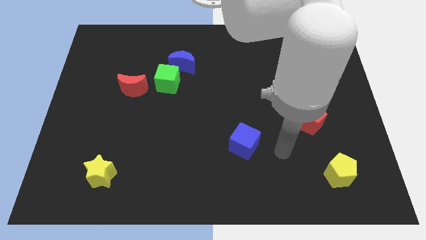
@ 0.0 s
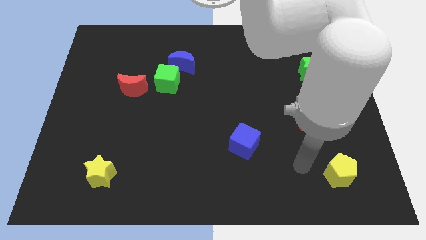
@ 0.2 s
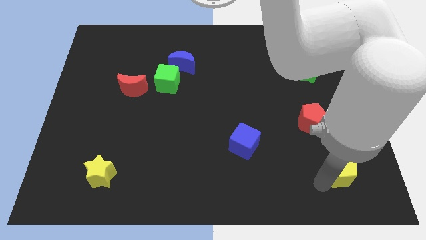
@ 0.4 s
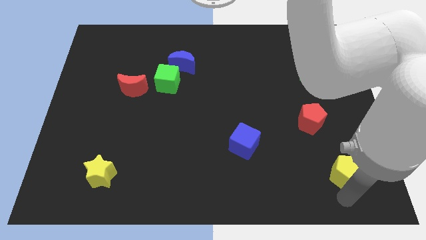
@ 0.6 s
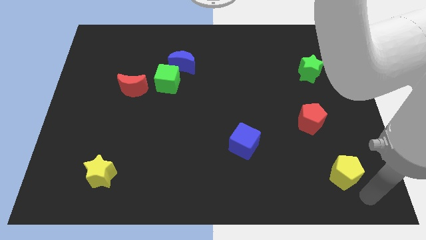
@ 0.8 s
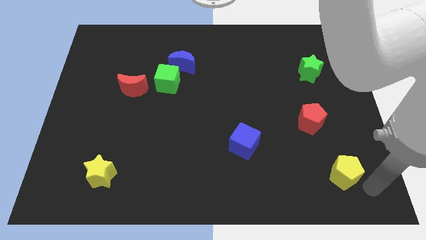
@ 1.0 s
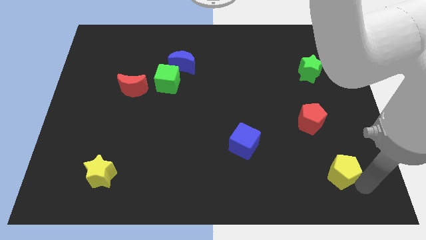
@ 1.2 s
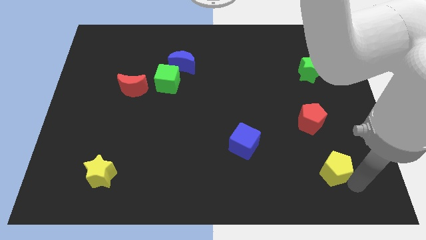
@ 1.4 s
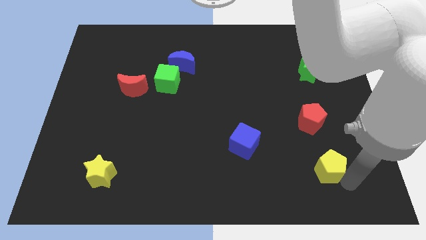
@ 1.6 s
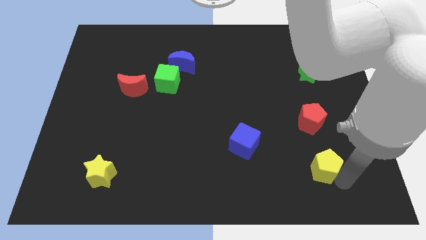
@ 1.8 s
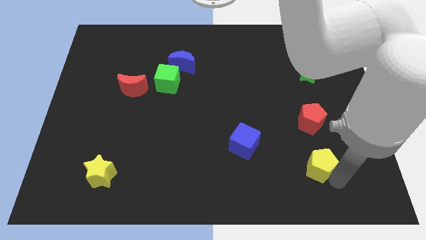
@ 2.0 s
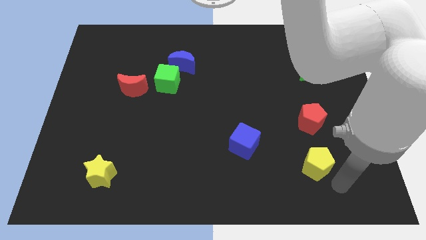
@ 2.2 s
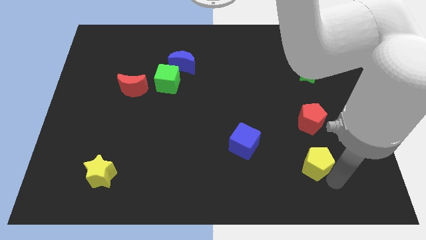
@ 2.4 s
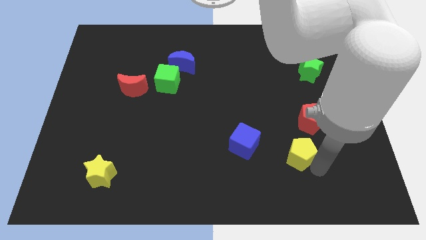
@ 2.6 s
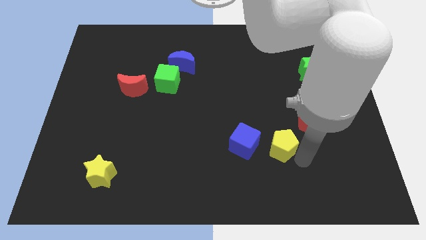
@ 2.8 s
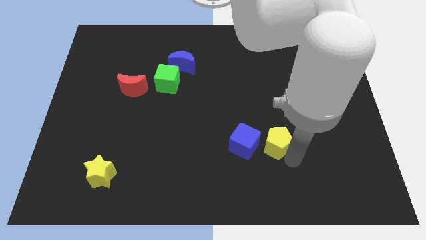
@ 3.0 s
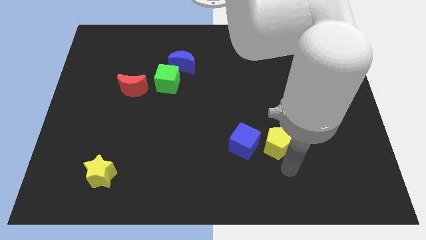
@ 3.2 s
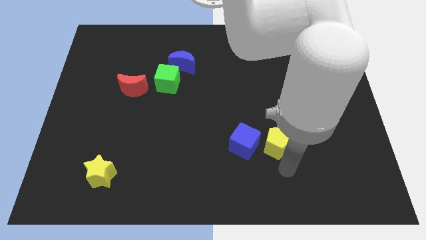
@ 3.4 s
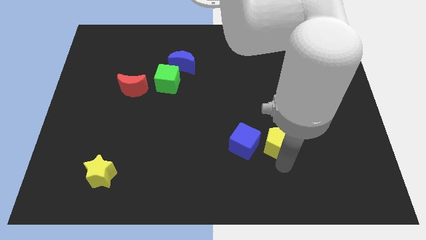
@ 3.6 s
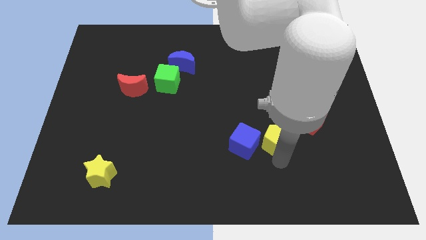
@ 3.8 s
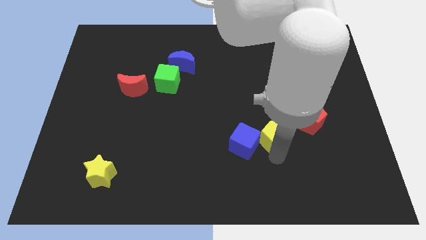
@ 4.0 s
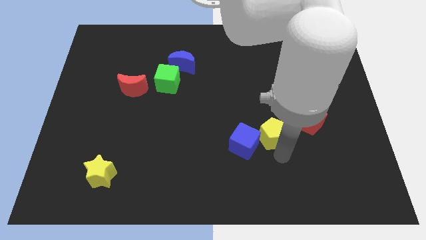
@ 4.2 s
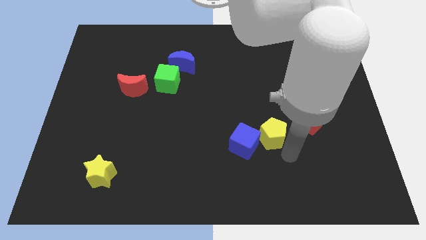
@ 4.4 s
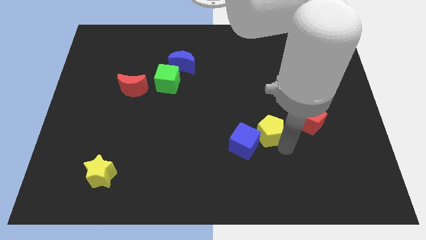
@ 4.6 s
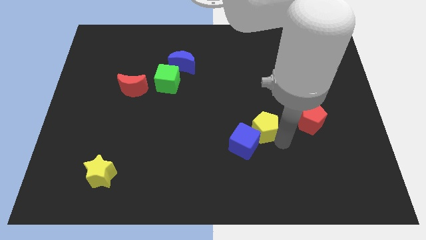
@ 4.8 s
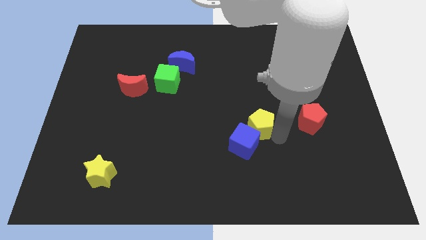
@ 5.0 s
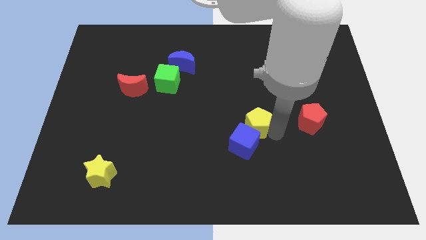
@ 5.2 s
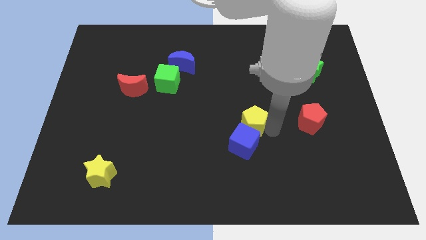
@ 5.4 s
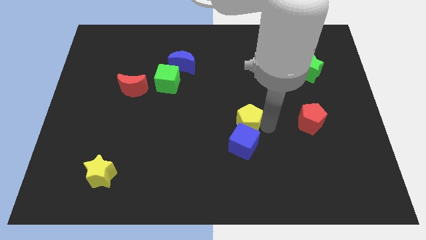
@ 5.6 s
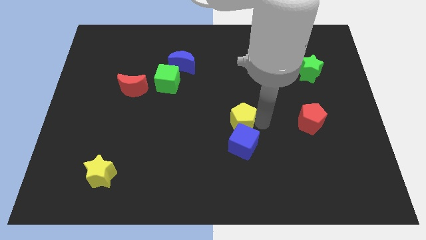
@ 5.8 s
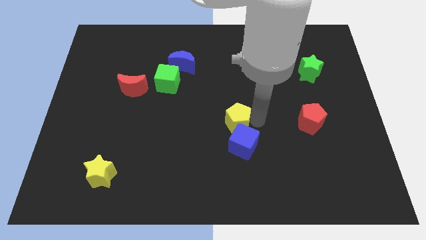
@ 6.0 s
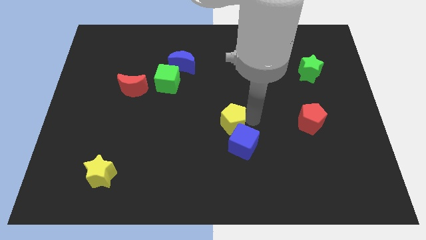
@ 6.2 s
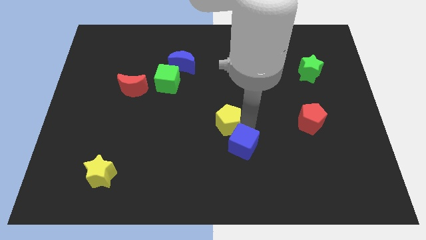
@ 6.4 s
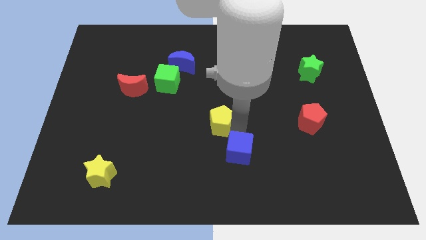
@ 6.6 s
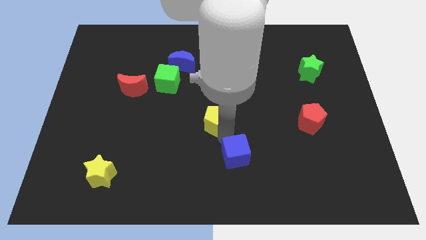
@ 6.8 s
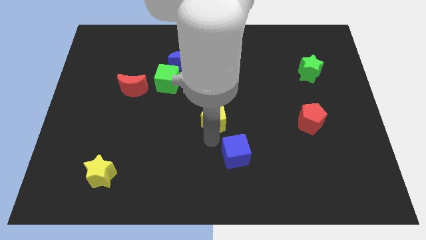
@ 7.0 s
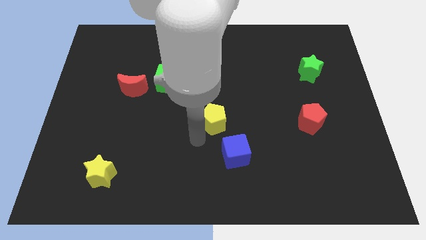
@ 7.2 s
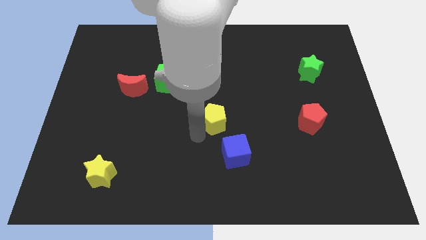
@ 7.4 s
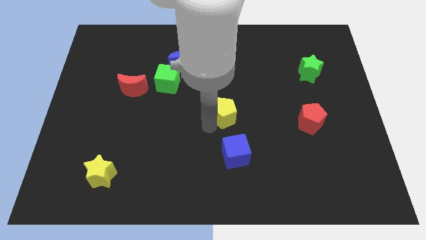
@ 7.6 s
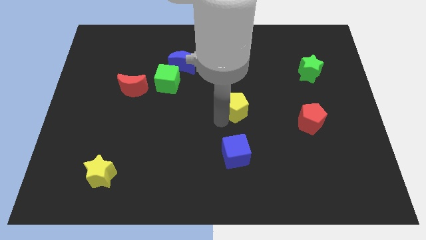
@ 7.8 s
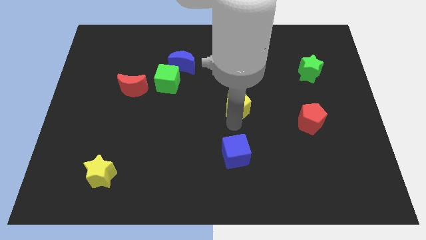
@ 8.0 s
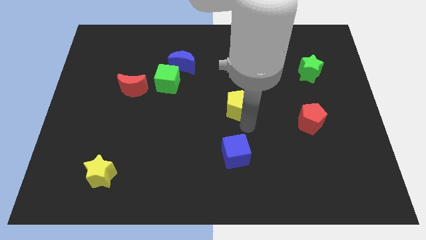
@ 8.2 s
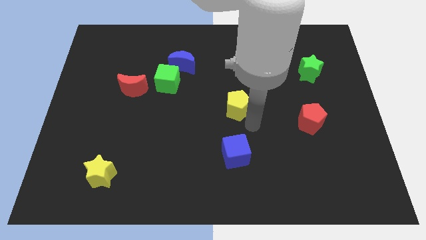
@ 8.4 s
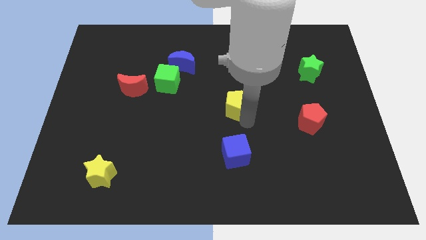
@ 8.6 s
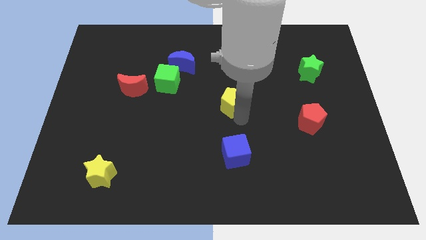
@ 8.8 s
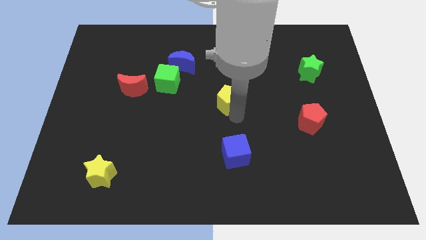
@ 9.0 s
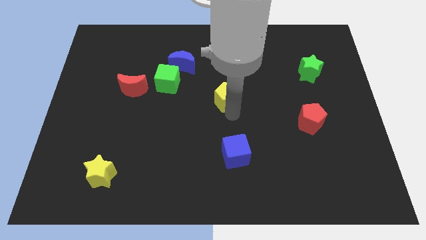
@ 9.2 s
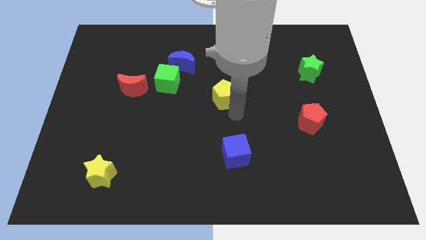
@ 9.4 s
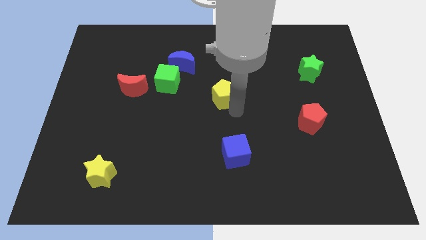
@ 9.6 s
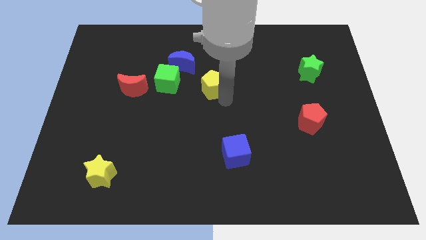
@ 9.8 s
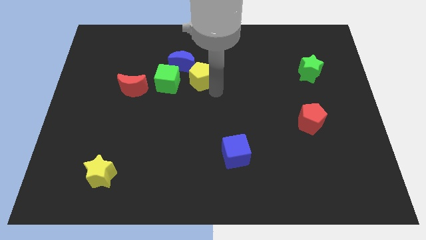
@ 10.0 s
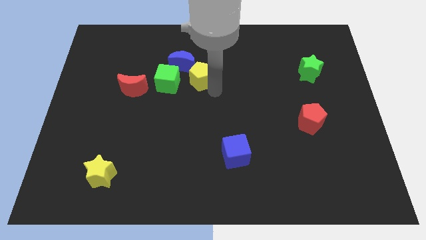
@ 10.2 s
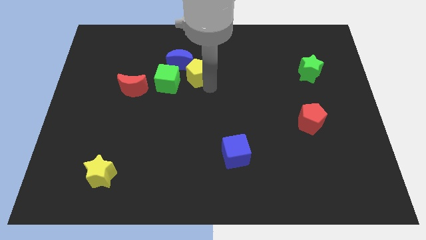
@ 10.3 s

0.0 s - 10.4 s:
move the yellow pentagon to the blue moon

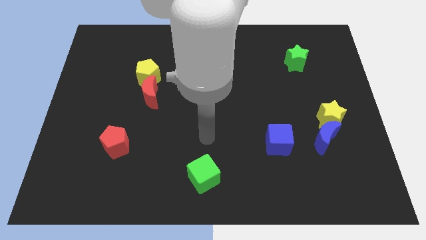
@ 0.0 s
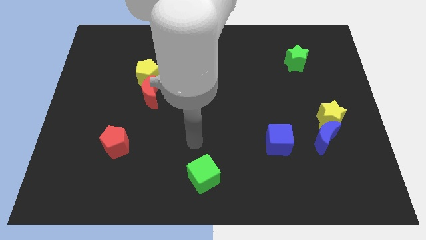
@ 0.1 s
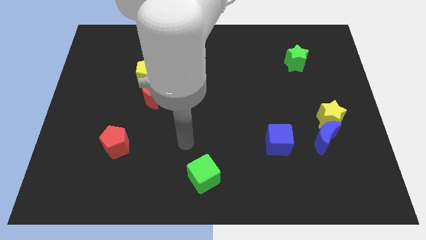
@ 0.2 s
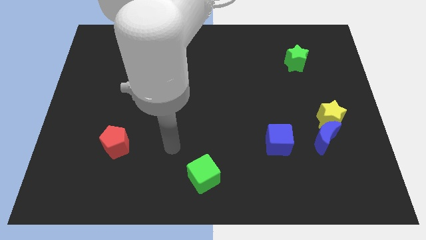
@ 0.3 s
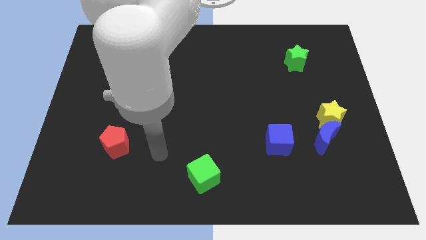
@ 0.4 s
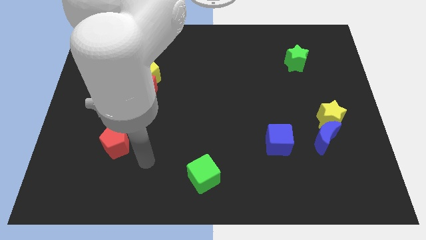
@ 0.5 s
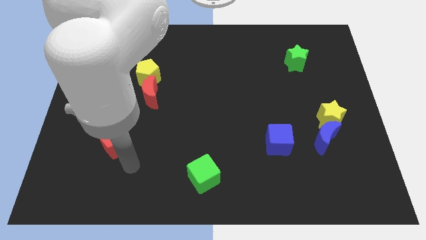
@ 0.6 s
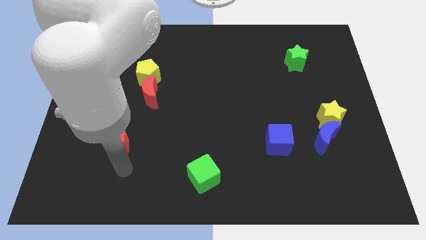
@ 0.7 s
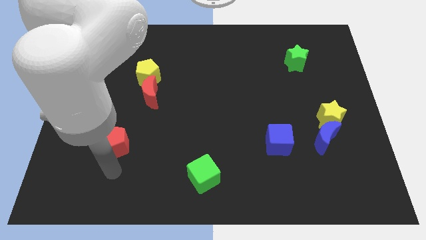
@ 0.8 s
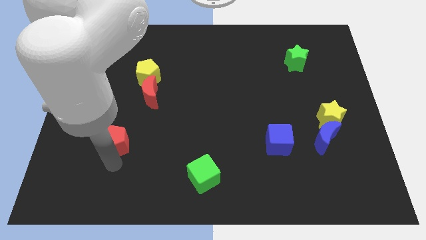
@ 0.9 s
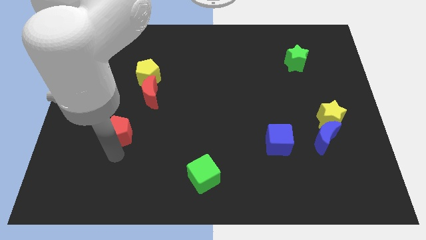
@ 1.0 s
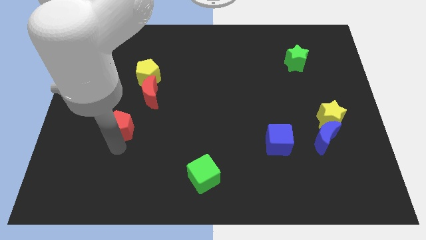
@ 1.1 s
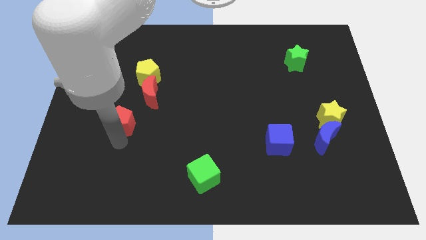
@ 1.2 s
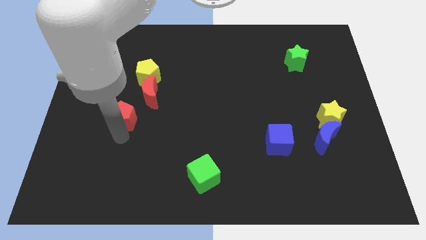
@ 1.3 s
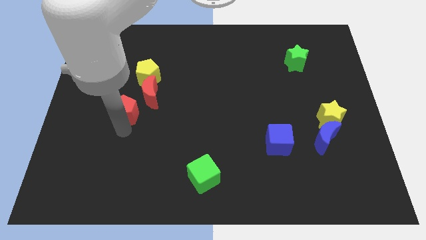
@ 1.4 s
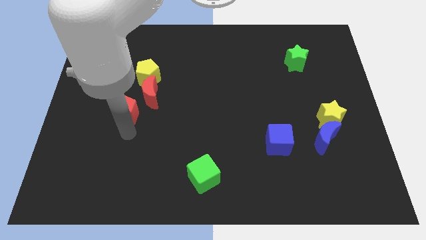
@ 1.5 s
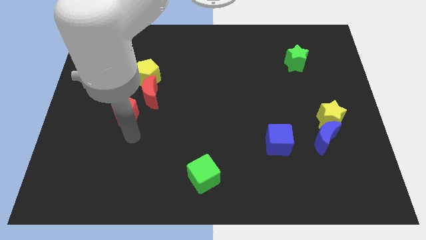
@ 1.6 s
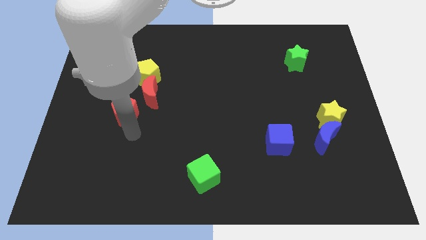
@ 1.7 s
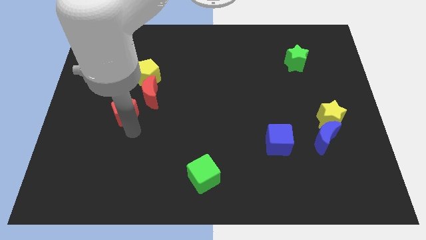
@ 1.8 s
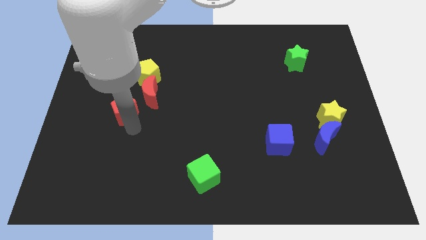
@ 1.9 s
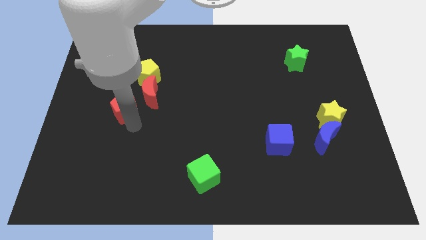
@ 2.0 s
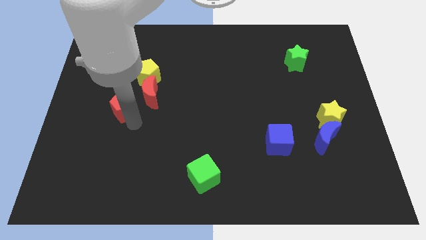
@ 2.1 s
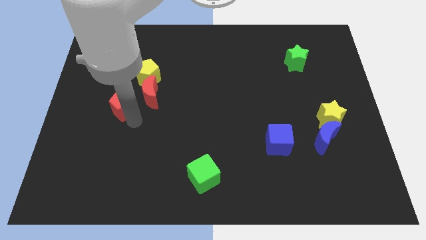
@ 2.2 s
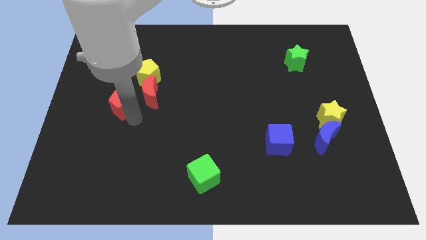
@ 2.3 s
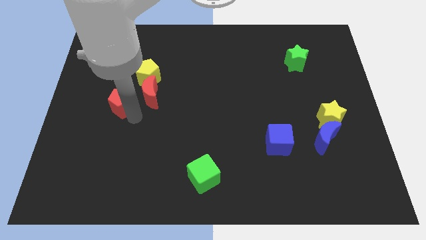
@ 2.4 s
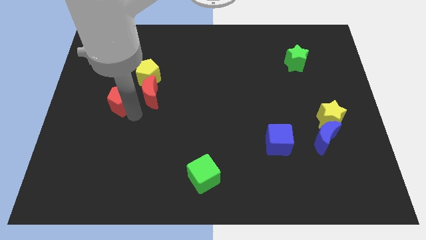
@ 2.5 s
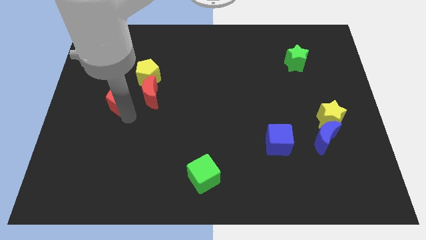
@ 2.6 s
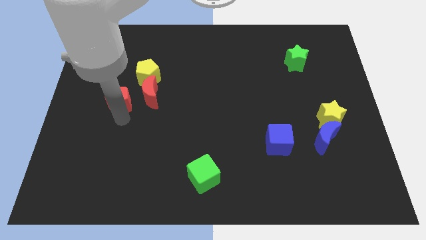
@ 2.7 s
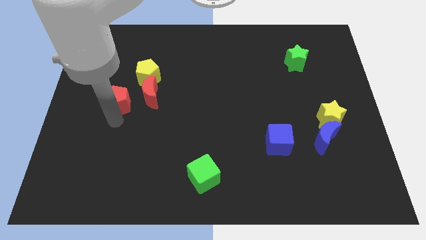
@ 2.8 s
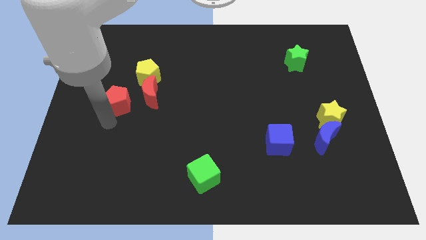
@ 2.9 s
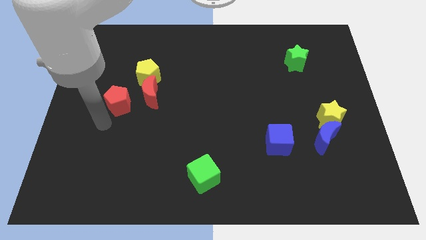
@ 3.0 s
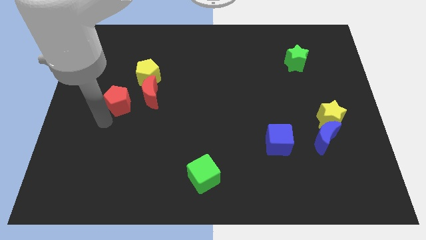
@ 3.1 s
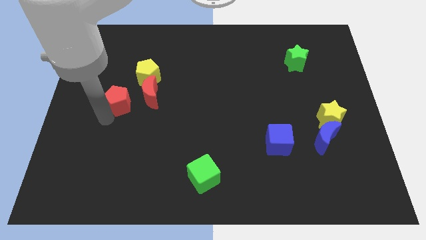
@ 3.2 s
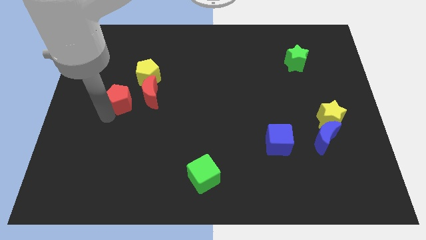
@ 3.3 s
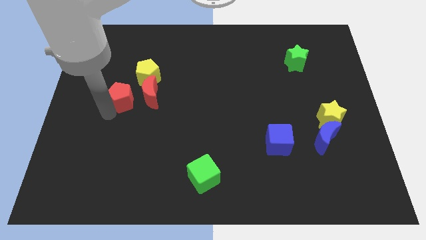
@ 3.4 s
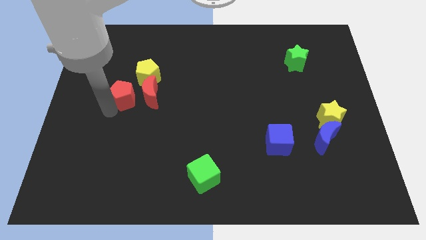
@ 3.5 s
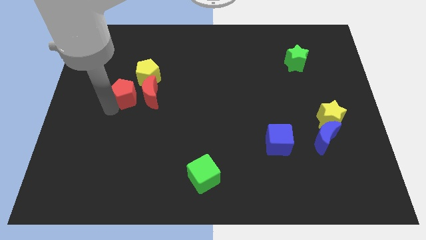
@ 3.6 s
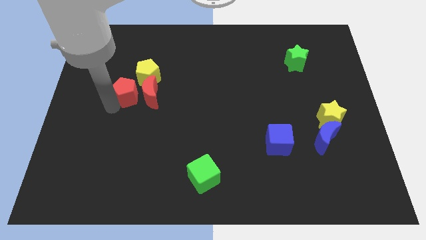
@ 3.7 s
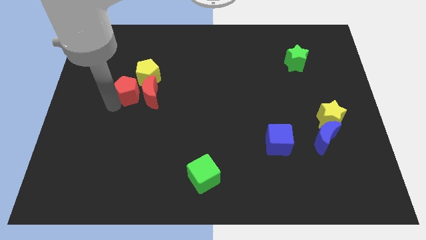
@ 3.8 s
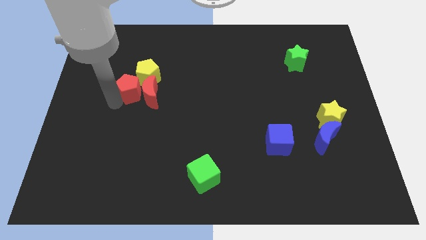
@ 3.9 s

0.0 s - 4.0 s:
move the red pentagon next to the yellow pentagon
